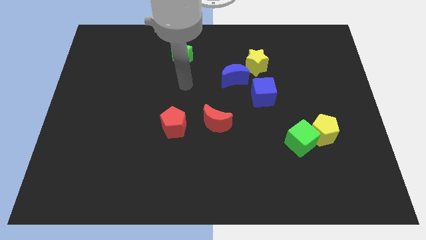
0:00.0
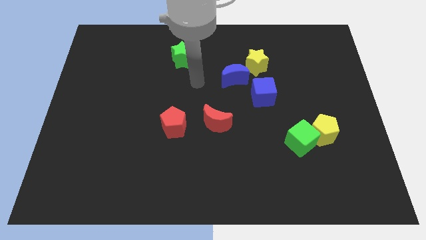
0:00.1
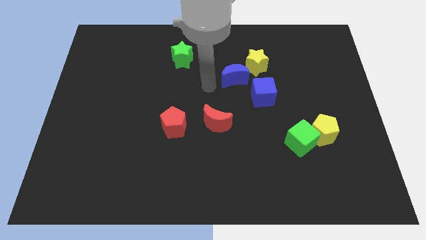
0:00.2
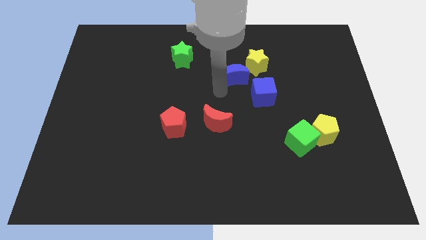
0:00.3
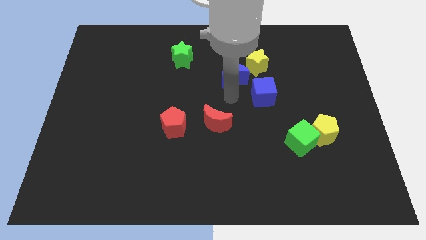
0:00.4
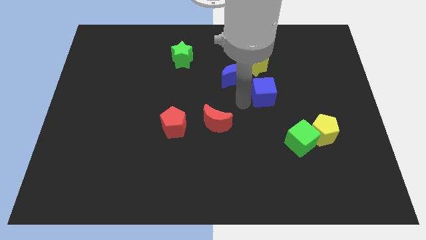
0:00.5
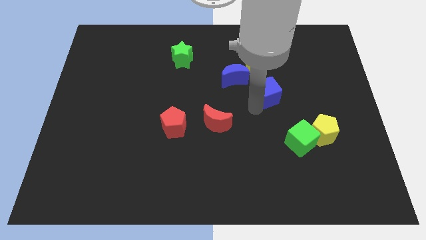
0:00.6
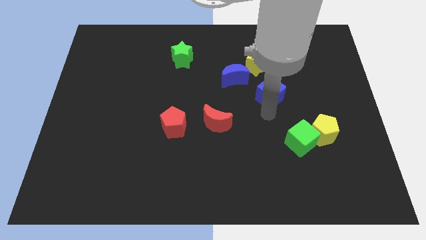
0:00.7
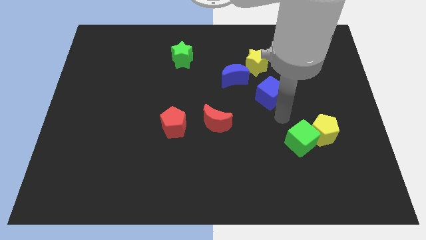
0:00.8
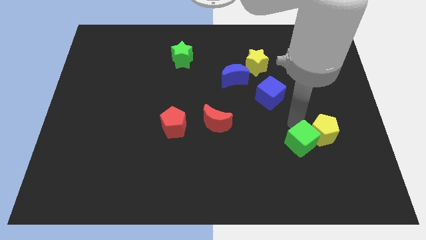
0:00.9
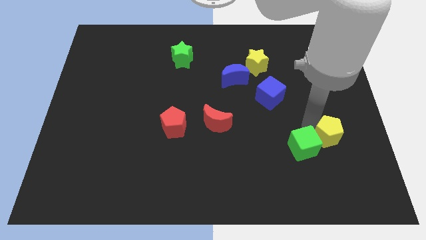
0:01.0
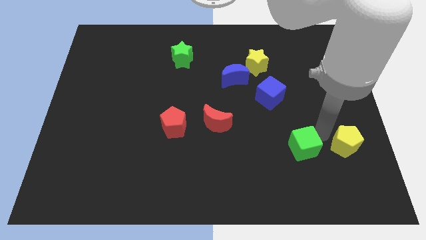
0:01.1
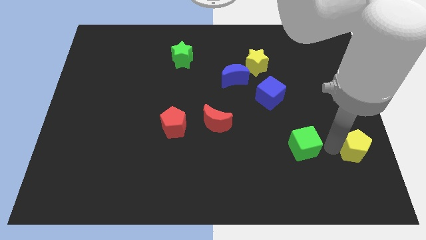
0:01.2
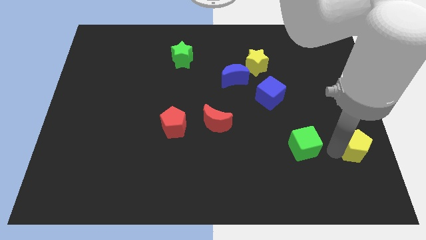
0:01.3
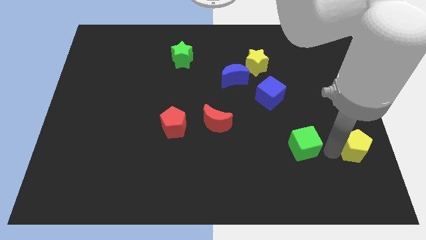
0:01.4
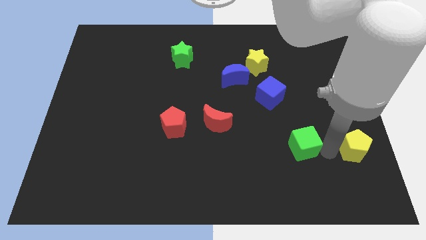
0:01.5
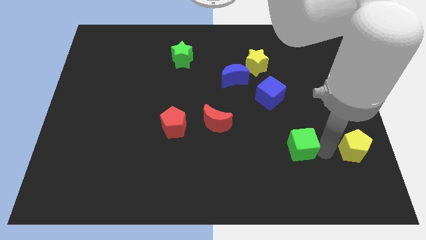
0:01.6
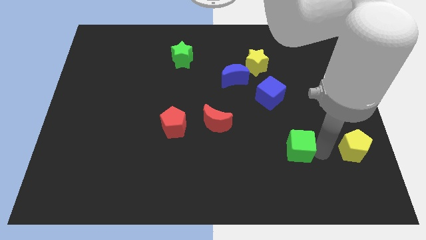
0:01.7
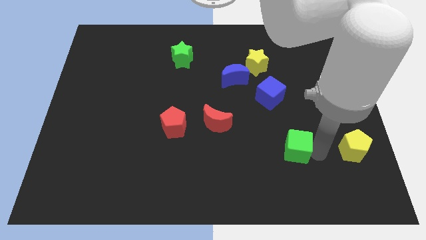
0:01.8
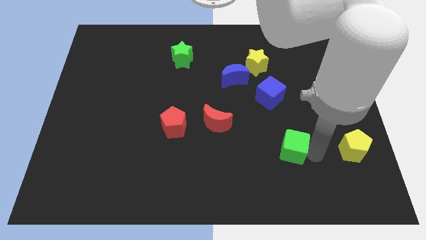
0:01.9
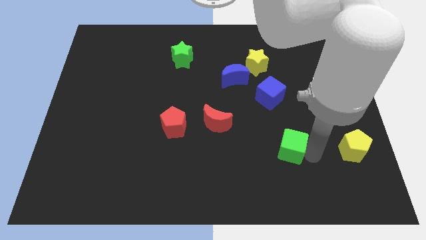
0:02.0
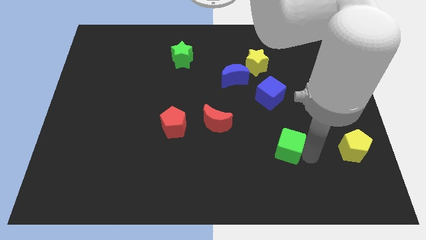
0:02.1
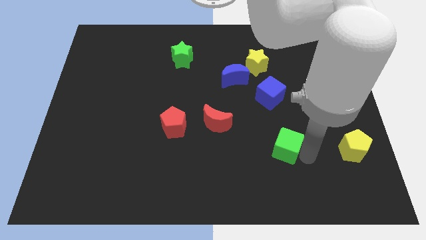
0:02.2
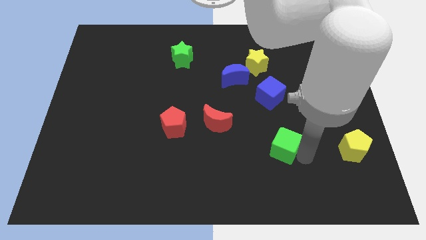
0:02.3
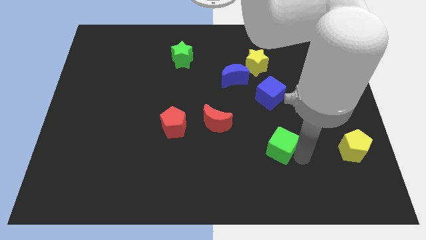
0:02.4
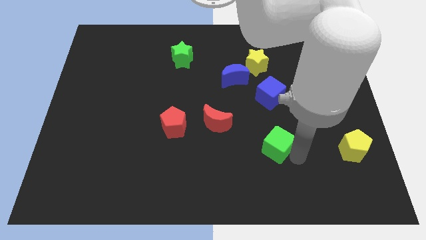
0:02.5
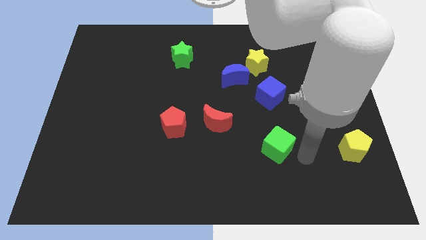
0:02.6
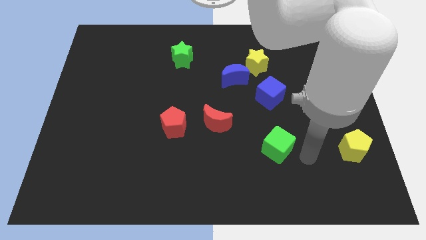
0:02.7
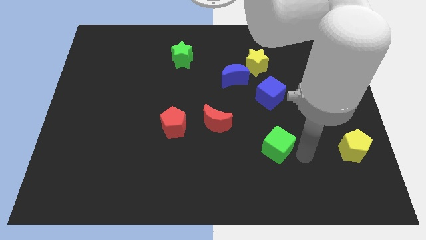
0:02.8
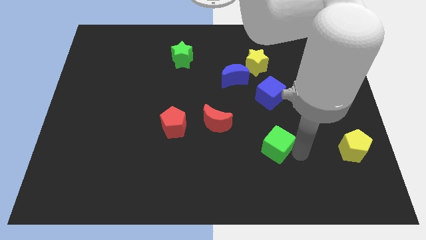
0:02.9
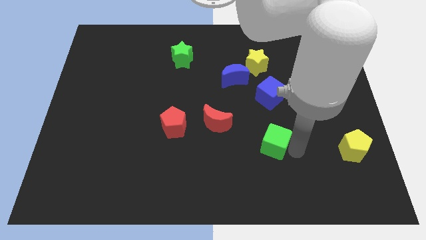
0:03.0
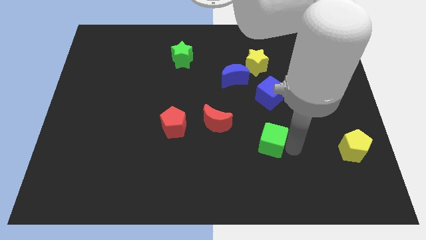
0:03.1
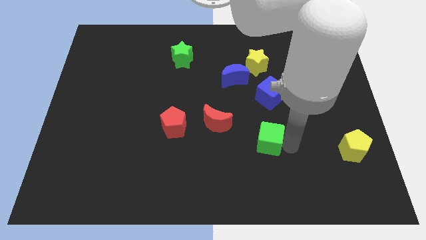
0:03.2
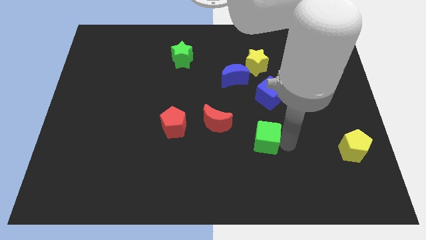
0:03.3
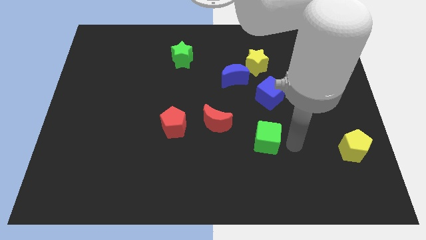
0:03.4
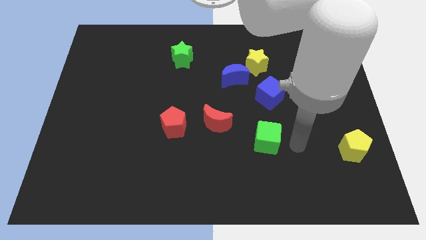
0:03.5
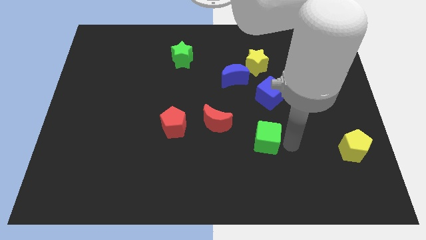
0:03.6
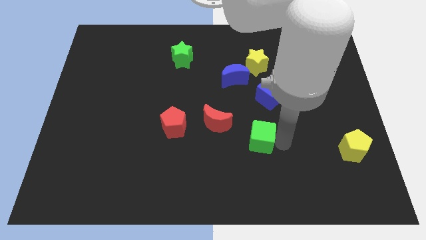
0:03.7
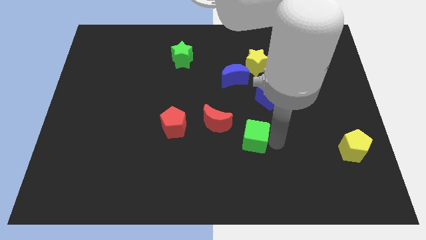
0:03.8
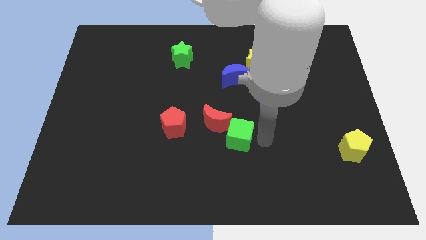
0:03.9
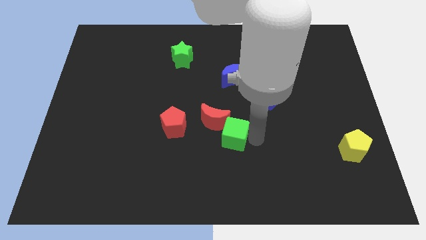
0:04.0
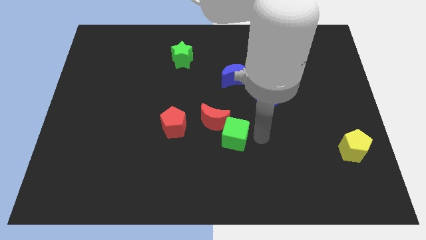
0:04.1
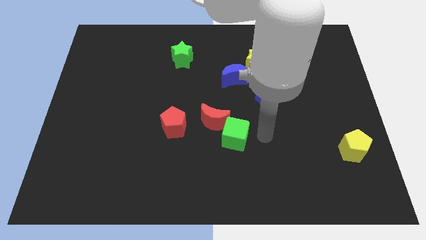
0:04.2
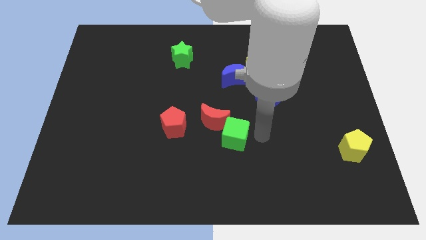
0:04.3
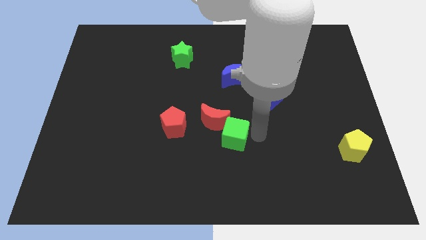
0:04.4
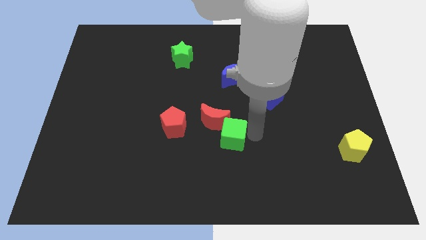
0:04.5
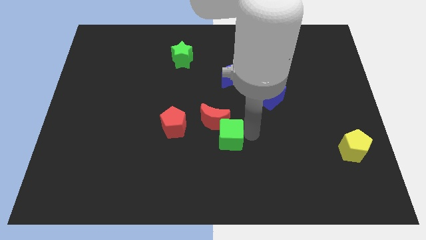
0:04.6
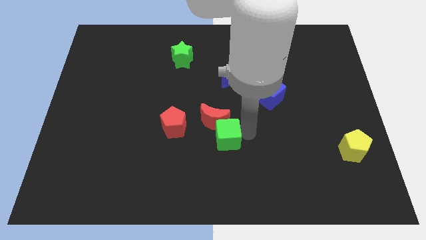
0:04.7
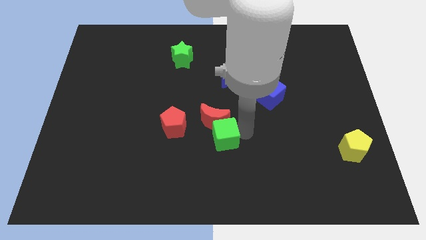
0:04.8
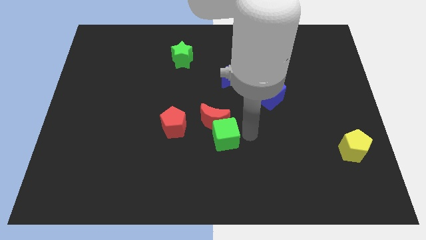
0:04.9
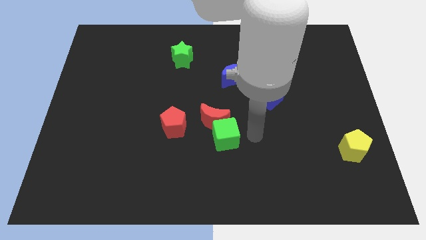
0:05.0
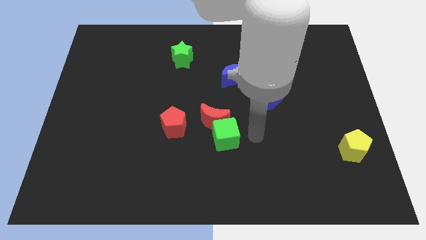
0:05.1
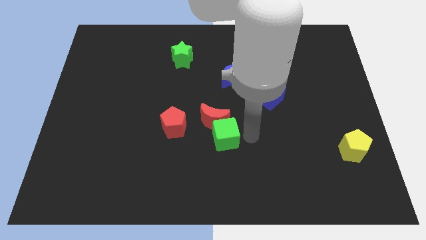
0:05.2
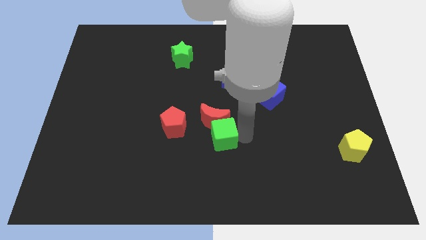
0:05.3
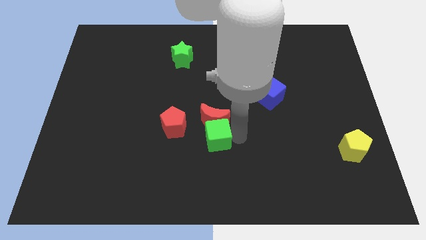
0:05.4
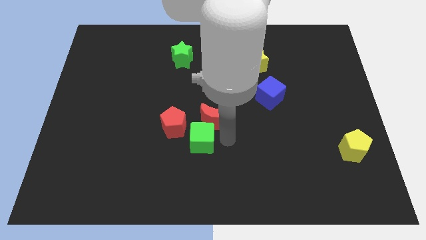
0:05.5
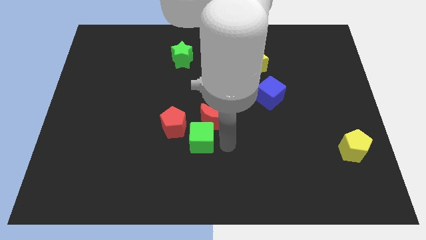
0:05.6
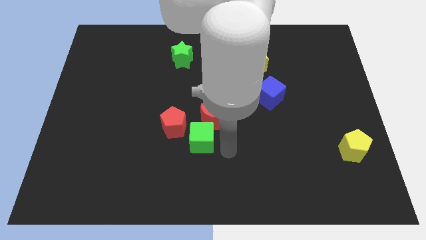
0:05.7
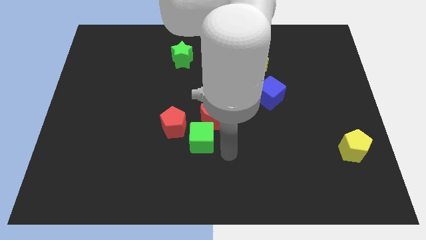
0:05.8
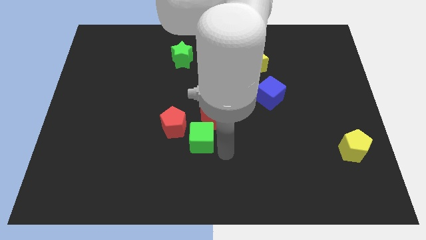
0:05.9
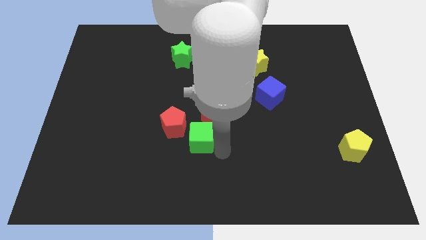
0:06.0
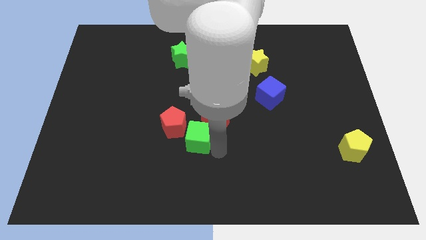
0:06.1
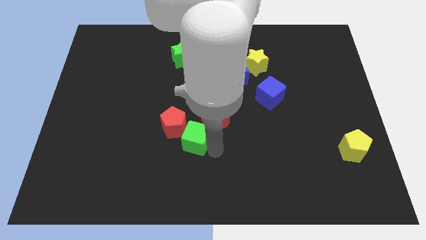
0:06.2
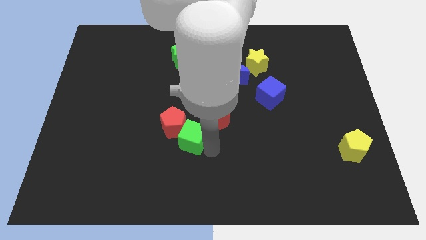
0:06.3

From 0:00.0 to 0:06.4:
slide the green cube close to the red pentagon
